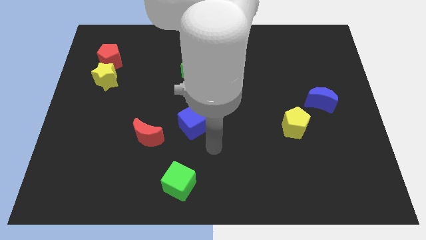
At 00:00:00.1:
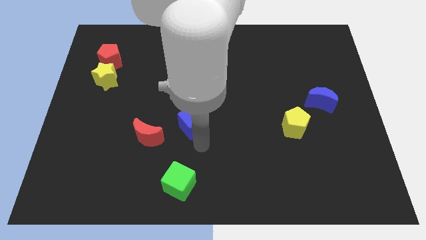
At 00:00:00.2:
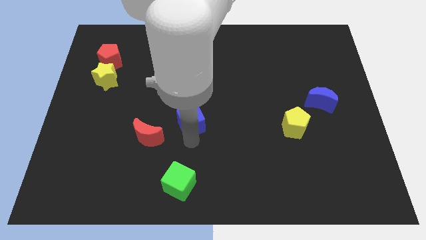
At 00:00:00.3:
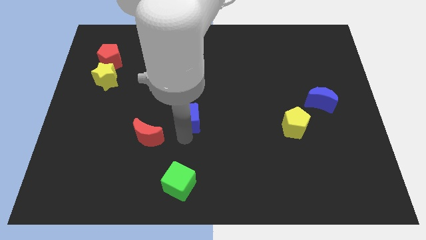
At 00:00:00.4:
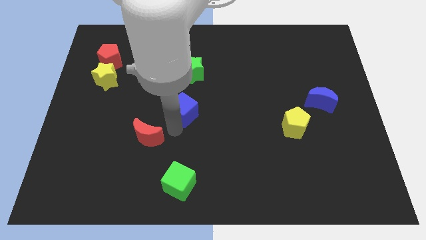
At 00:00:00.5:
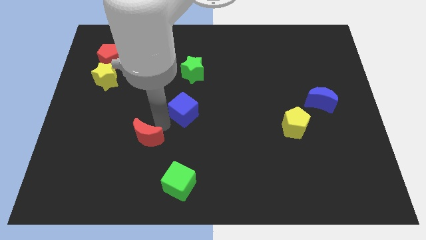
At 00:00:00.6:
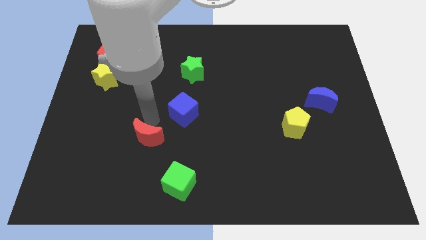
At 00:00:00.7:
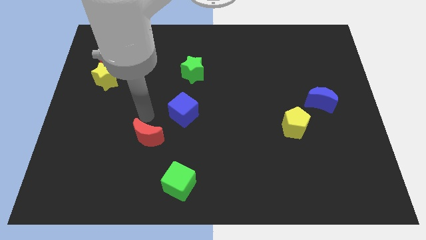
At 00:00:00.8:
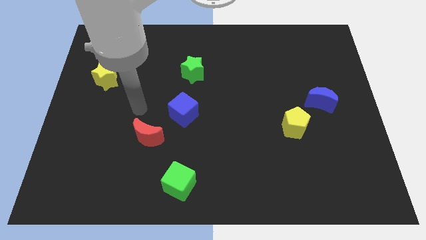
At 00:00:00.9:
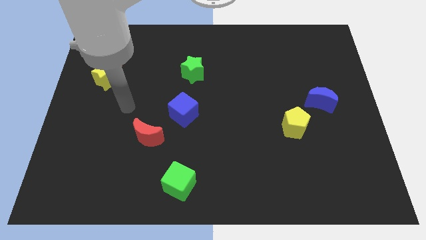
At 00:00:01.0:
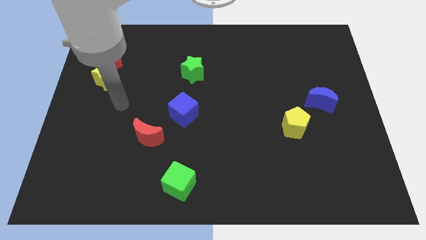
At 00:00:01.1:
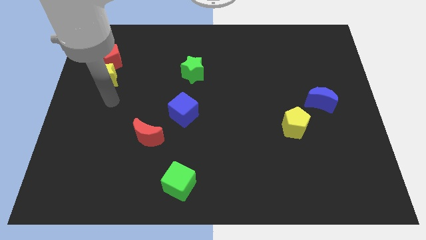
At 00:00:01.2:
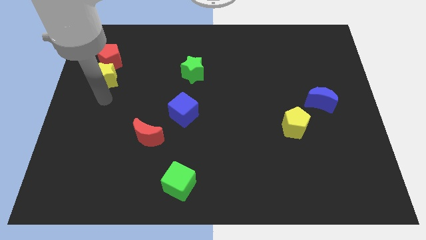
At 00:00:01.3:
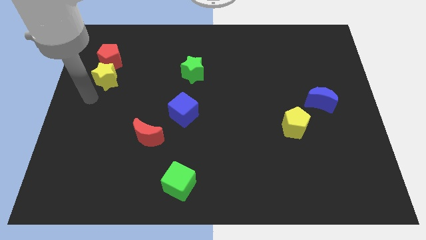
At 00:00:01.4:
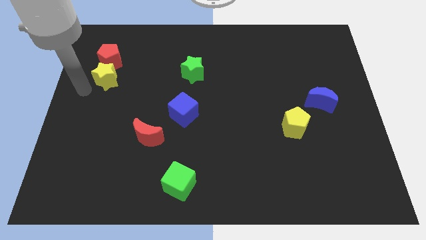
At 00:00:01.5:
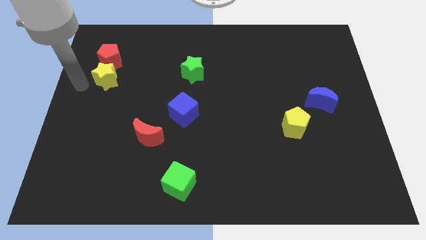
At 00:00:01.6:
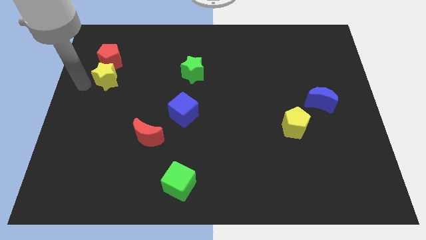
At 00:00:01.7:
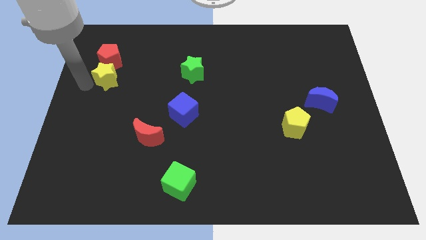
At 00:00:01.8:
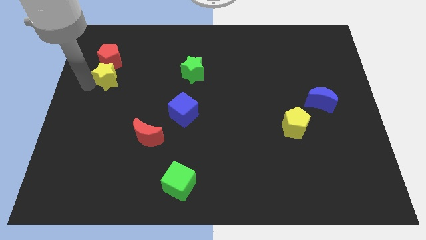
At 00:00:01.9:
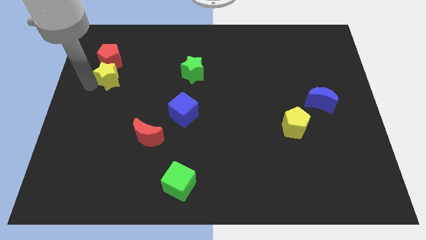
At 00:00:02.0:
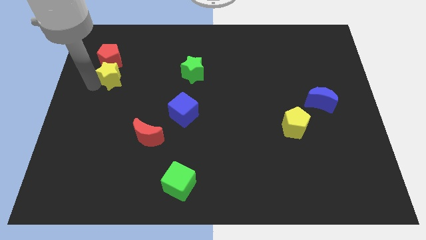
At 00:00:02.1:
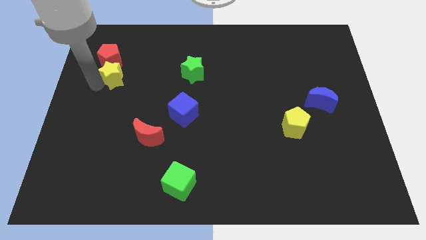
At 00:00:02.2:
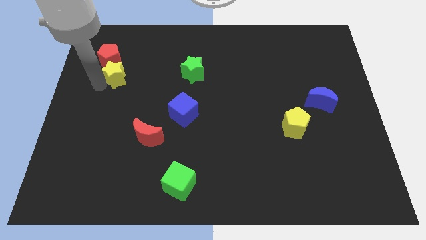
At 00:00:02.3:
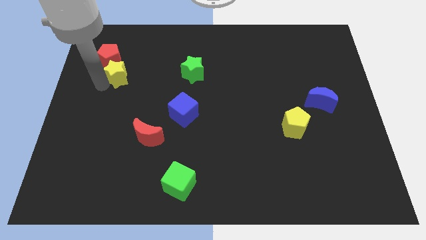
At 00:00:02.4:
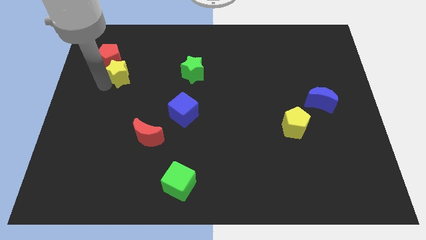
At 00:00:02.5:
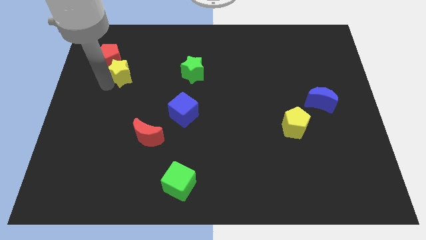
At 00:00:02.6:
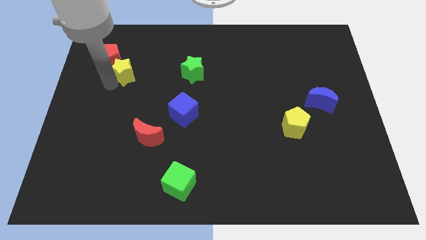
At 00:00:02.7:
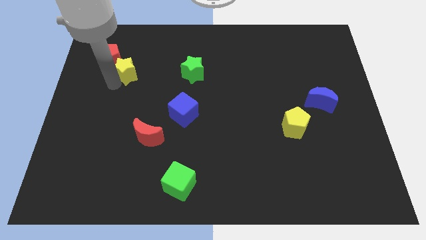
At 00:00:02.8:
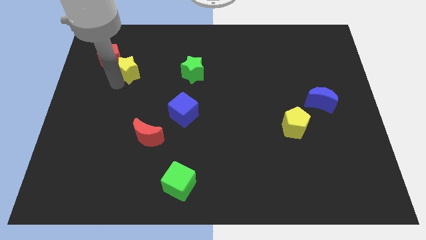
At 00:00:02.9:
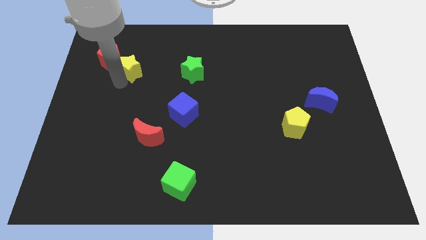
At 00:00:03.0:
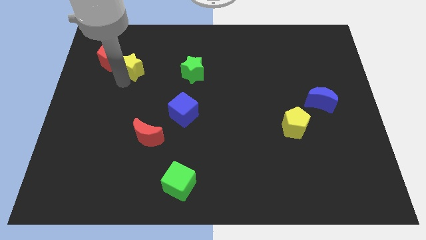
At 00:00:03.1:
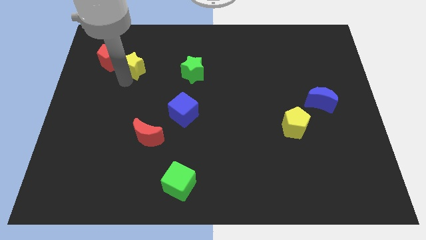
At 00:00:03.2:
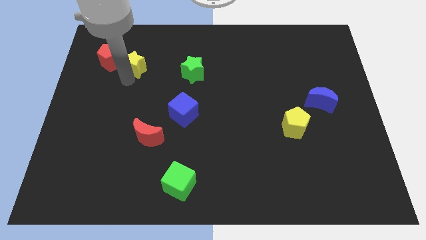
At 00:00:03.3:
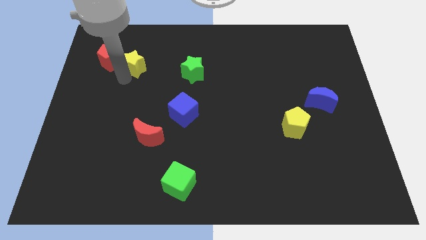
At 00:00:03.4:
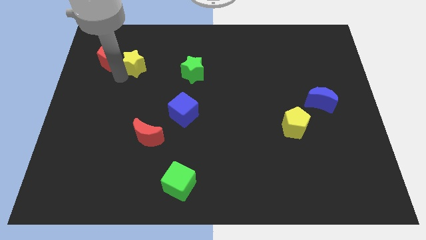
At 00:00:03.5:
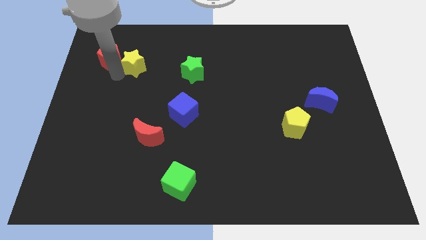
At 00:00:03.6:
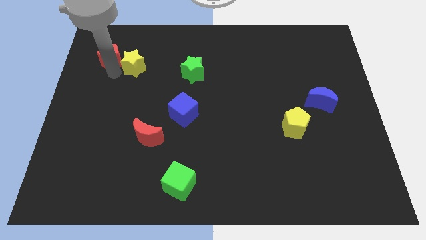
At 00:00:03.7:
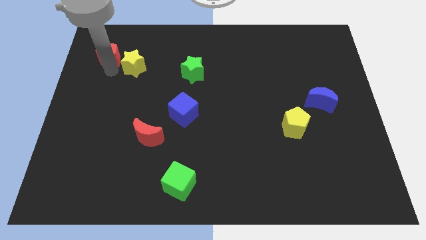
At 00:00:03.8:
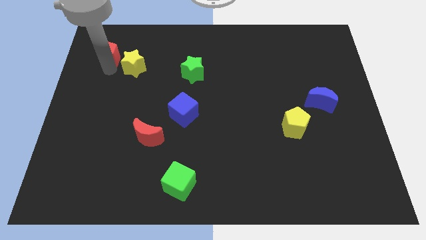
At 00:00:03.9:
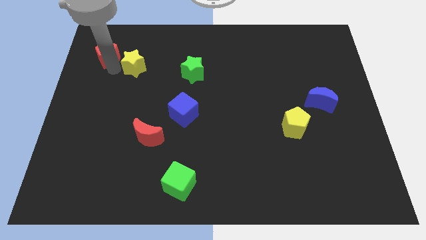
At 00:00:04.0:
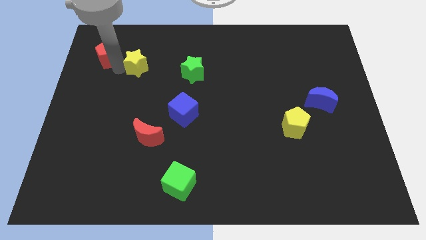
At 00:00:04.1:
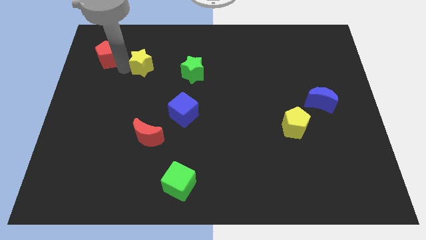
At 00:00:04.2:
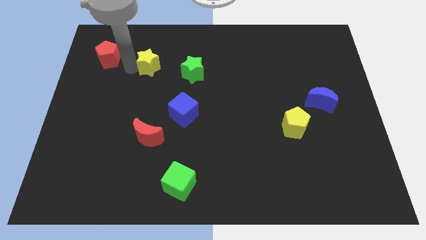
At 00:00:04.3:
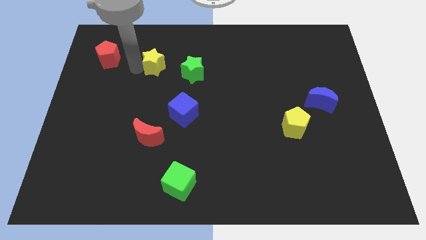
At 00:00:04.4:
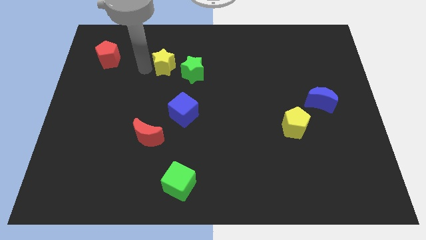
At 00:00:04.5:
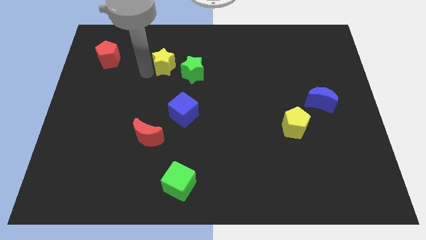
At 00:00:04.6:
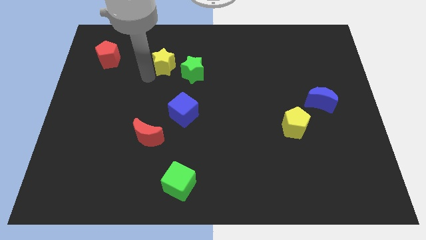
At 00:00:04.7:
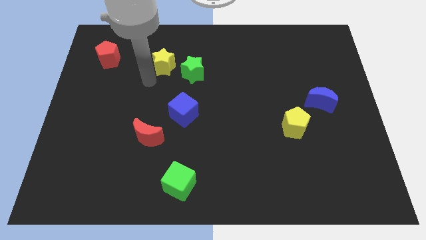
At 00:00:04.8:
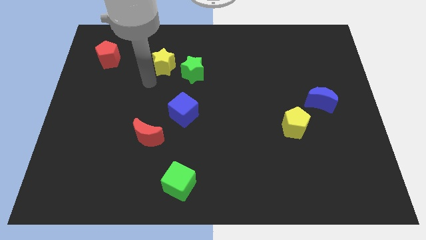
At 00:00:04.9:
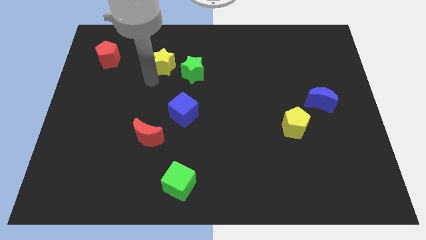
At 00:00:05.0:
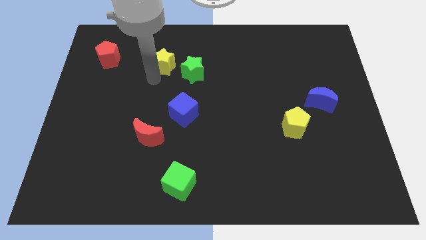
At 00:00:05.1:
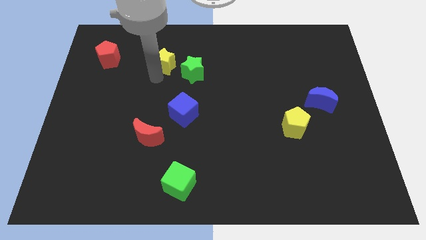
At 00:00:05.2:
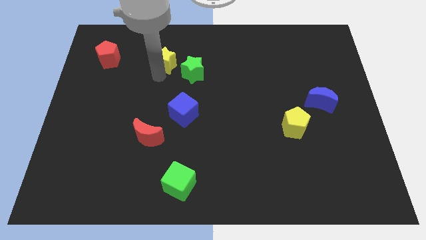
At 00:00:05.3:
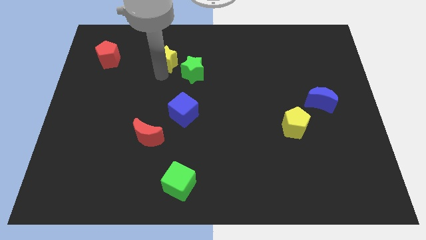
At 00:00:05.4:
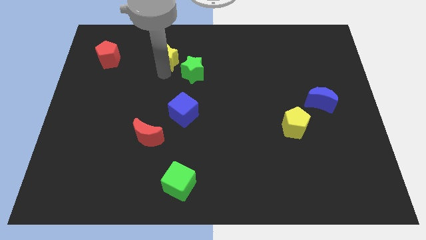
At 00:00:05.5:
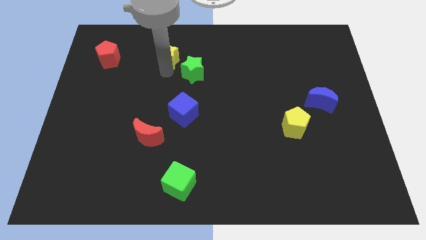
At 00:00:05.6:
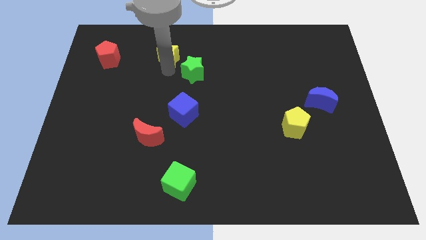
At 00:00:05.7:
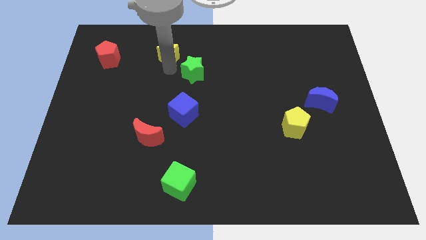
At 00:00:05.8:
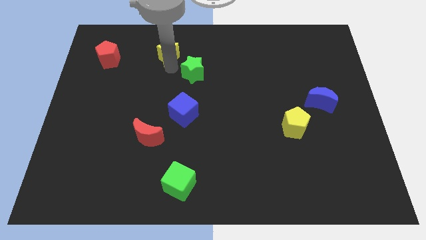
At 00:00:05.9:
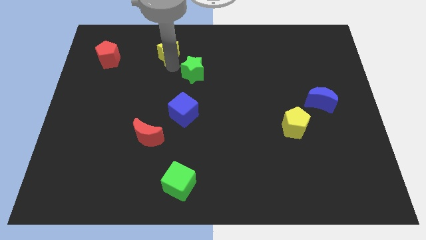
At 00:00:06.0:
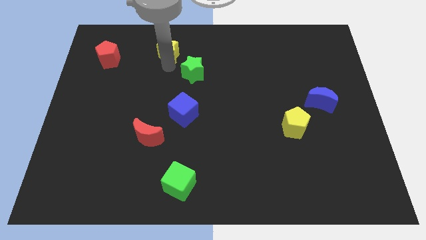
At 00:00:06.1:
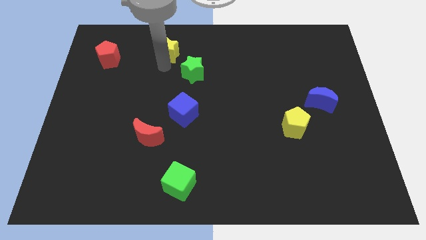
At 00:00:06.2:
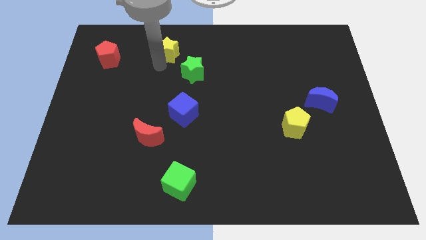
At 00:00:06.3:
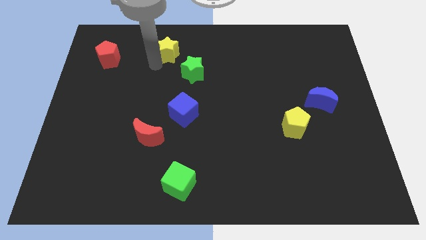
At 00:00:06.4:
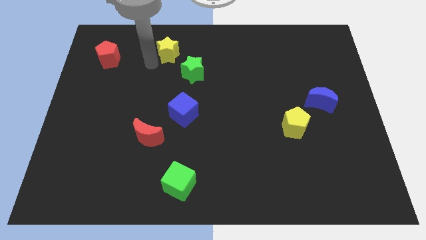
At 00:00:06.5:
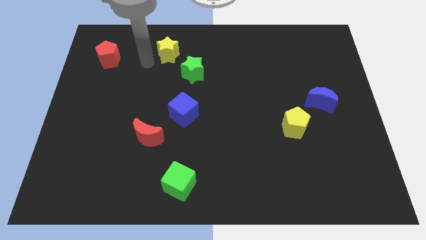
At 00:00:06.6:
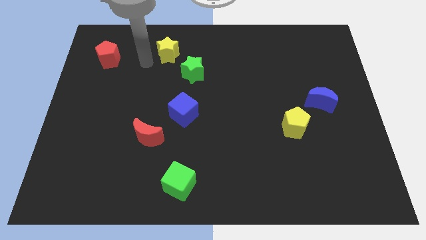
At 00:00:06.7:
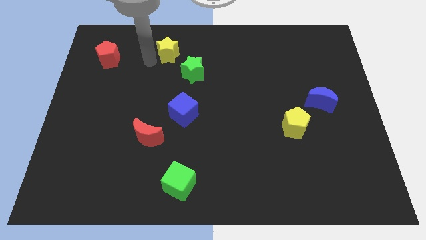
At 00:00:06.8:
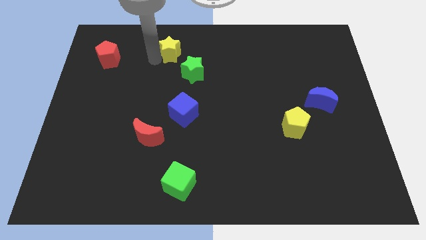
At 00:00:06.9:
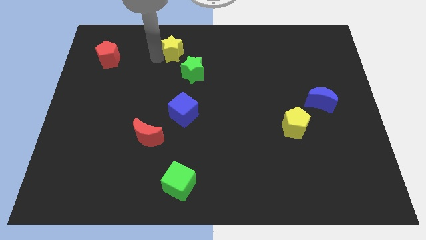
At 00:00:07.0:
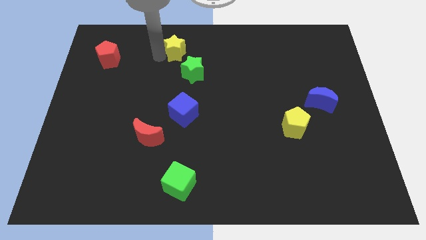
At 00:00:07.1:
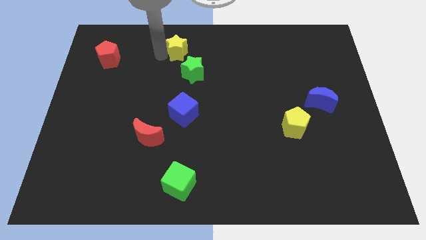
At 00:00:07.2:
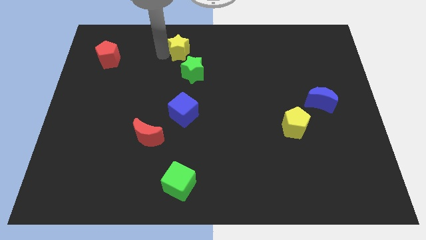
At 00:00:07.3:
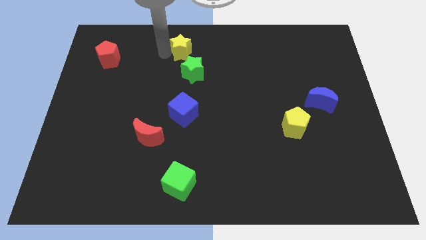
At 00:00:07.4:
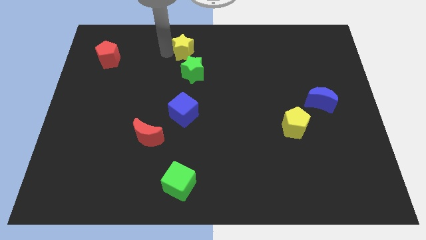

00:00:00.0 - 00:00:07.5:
slide the yellow star to the top
